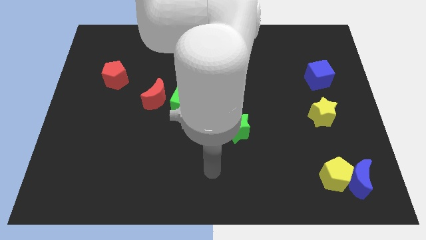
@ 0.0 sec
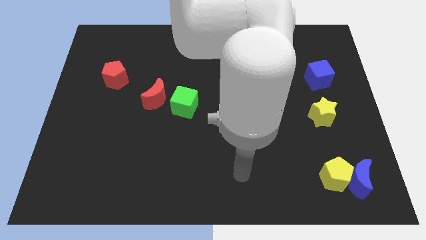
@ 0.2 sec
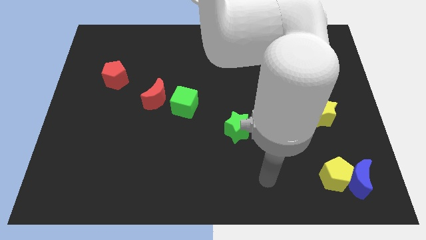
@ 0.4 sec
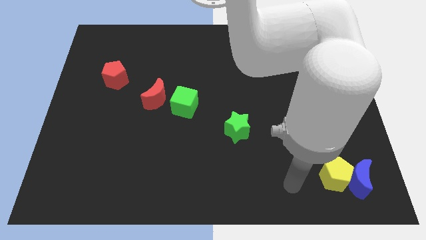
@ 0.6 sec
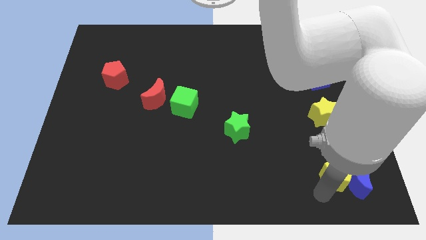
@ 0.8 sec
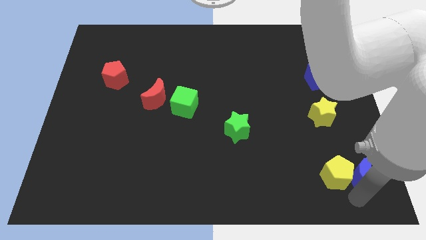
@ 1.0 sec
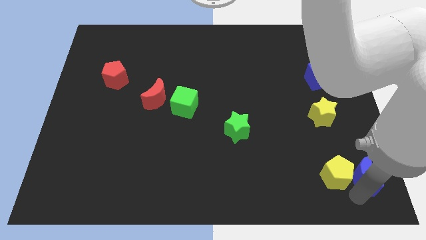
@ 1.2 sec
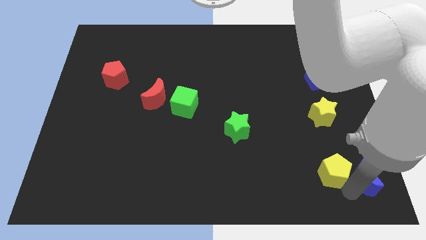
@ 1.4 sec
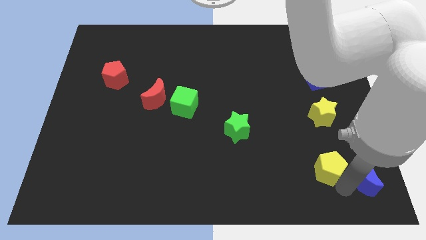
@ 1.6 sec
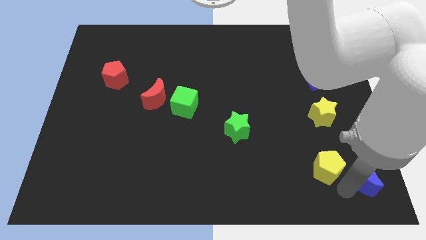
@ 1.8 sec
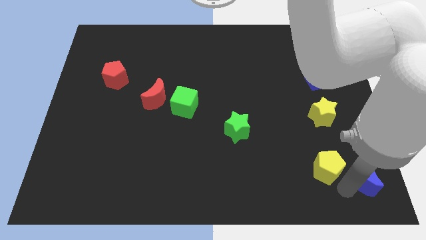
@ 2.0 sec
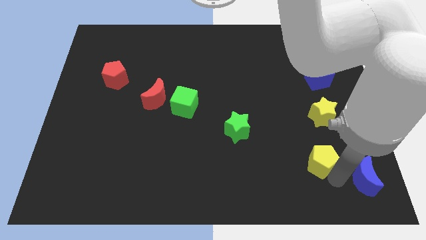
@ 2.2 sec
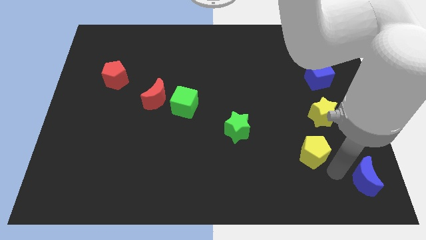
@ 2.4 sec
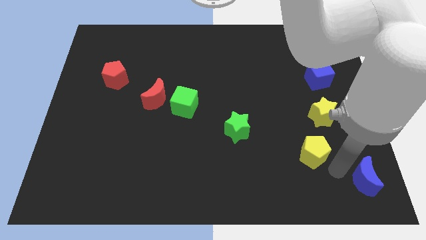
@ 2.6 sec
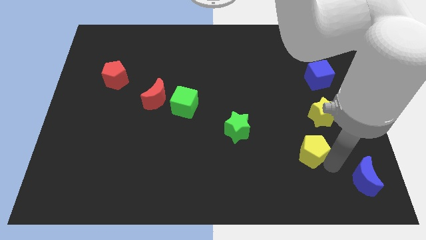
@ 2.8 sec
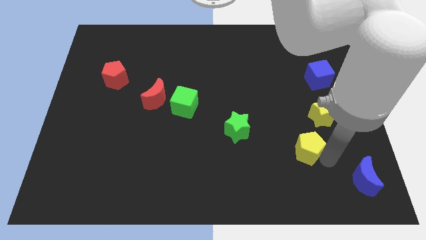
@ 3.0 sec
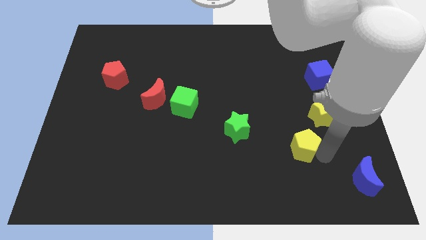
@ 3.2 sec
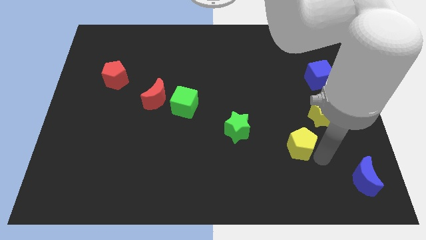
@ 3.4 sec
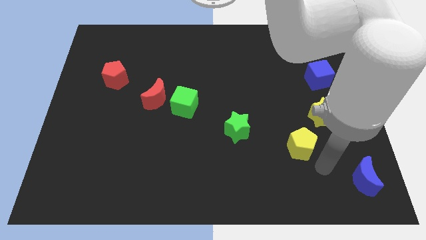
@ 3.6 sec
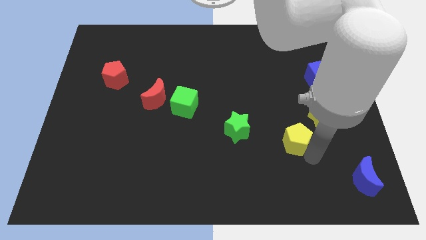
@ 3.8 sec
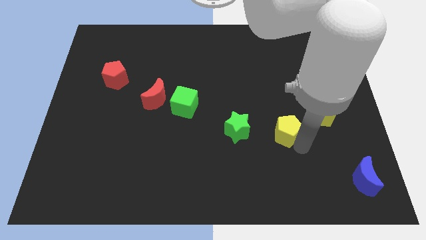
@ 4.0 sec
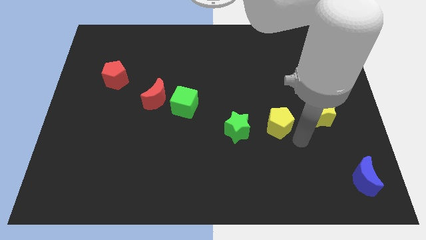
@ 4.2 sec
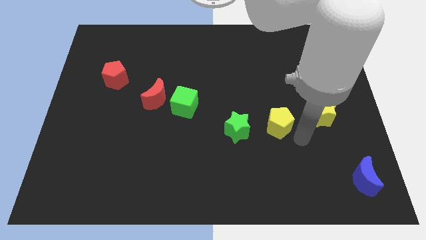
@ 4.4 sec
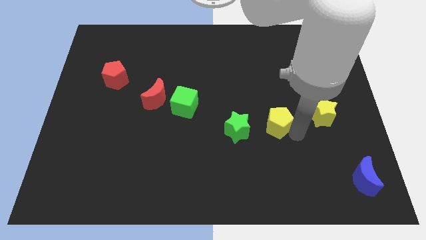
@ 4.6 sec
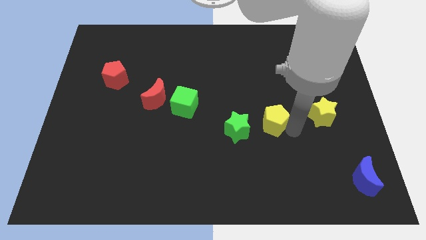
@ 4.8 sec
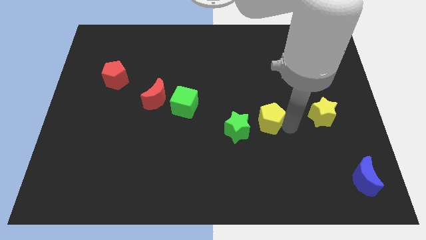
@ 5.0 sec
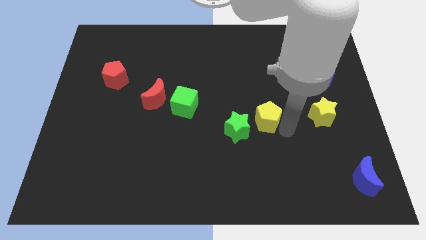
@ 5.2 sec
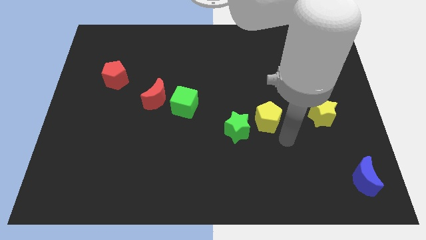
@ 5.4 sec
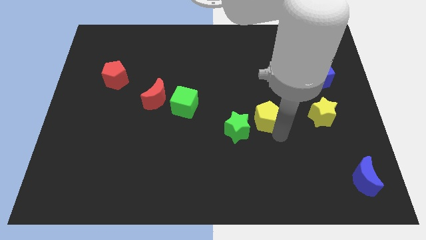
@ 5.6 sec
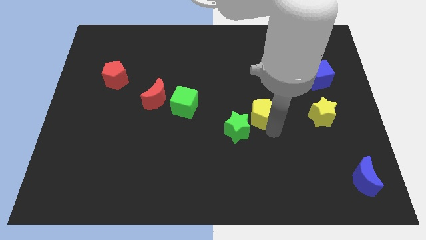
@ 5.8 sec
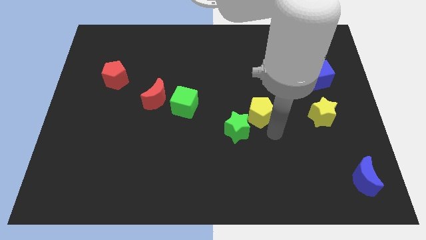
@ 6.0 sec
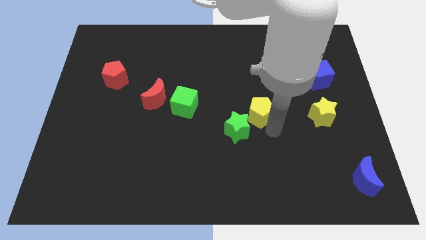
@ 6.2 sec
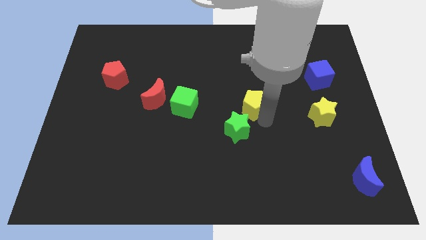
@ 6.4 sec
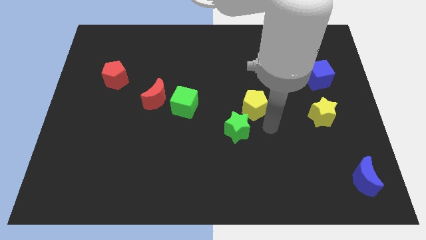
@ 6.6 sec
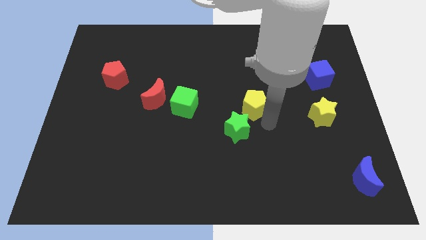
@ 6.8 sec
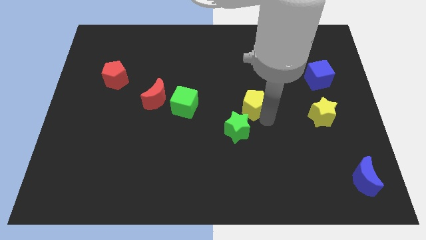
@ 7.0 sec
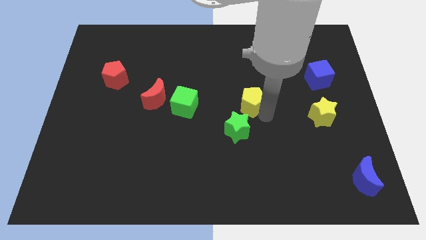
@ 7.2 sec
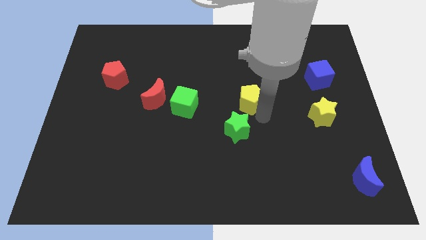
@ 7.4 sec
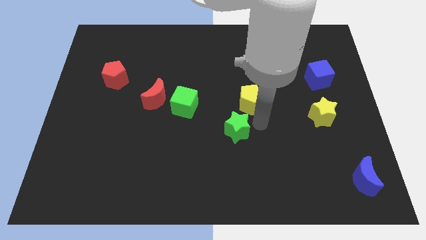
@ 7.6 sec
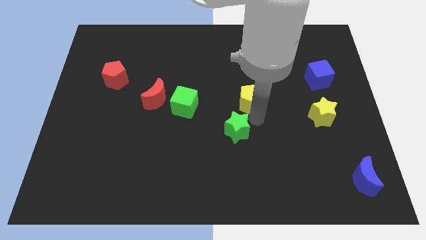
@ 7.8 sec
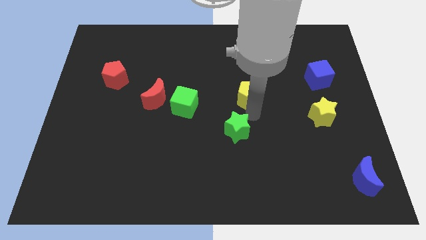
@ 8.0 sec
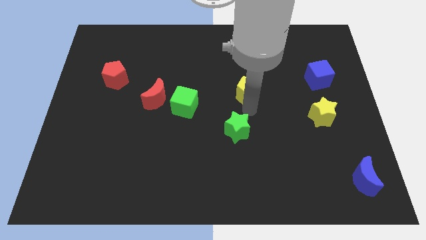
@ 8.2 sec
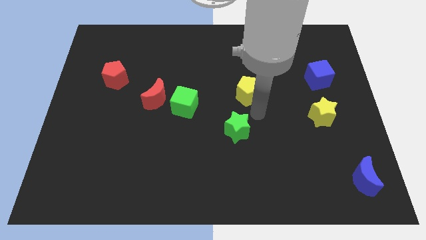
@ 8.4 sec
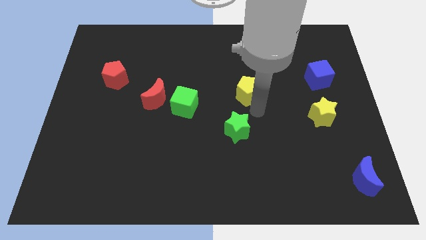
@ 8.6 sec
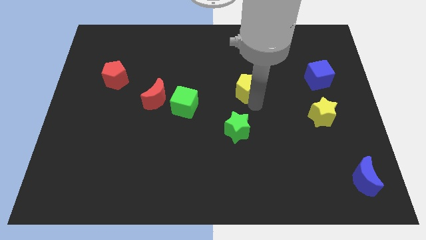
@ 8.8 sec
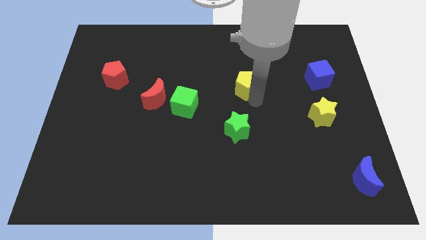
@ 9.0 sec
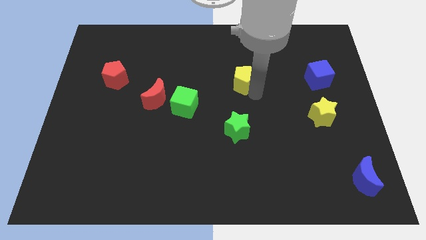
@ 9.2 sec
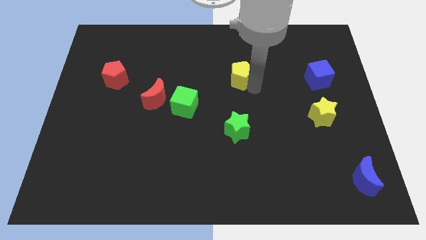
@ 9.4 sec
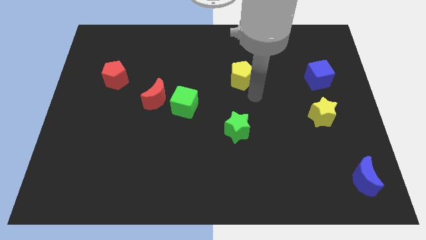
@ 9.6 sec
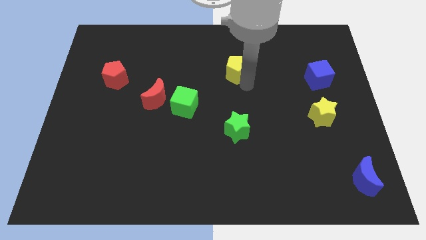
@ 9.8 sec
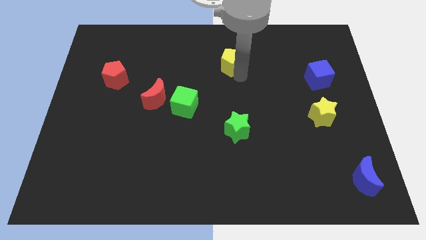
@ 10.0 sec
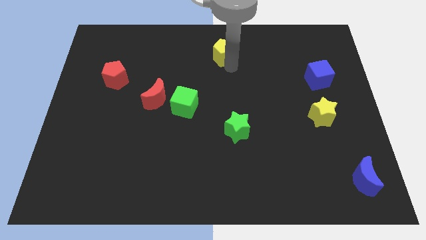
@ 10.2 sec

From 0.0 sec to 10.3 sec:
move the yellow pentagon to the top side

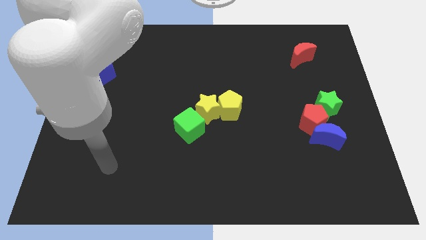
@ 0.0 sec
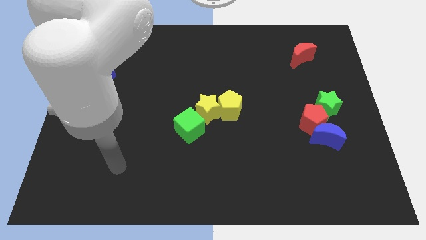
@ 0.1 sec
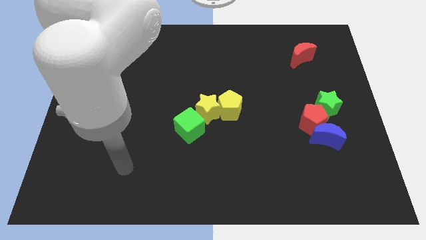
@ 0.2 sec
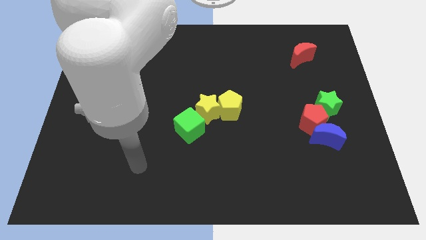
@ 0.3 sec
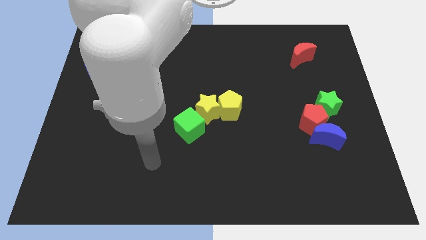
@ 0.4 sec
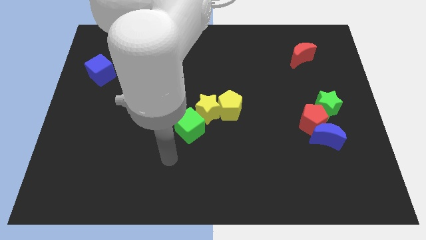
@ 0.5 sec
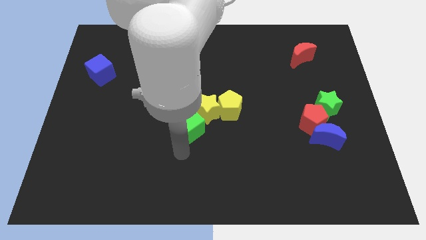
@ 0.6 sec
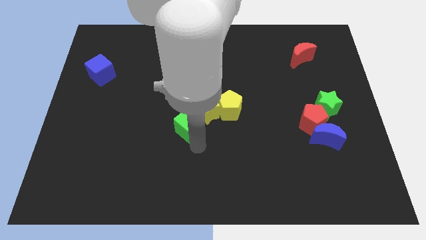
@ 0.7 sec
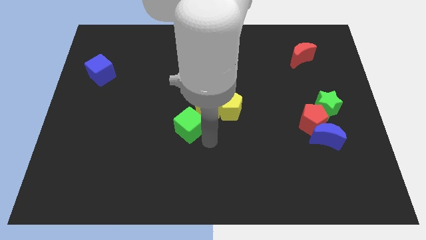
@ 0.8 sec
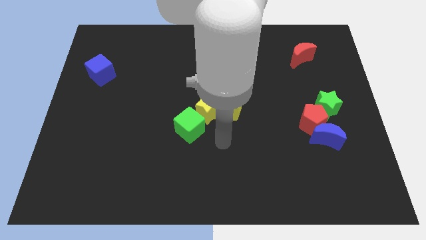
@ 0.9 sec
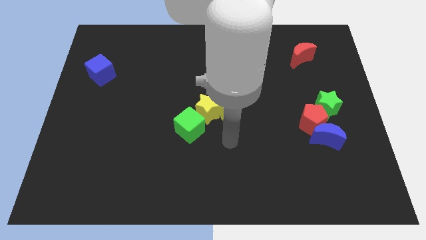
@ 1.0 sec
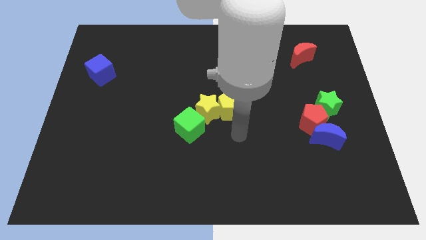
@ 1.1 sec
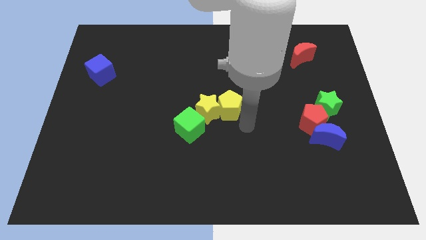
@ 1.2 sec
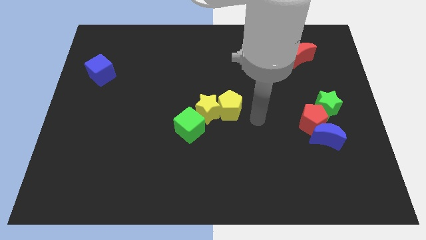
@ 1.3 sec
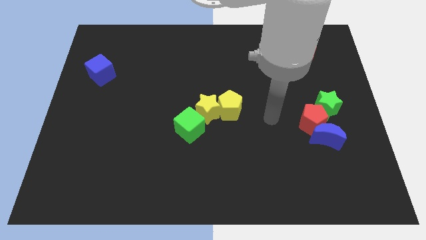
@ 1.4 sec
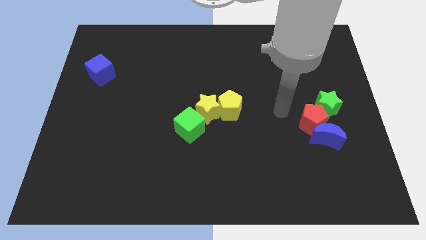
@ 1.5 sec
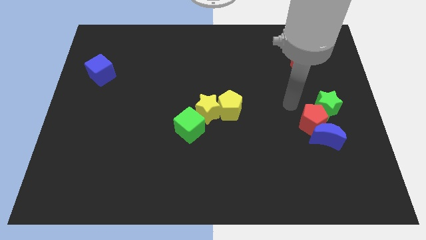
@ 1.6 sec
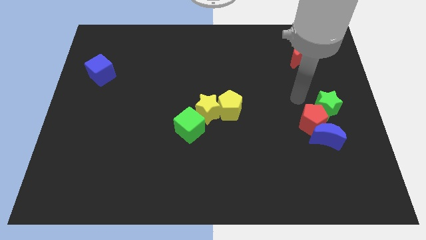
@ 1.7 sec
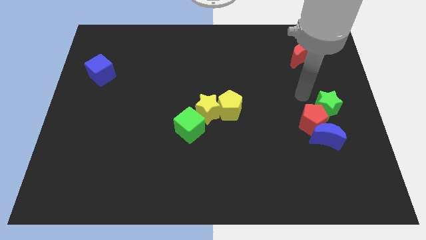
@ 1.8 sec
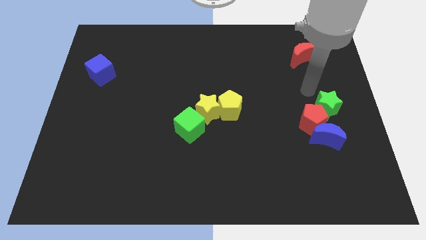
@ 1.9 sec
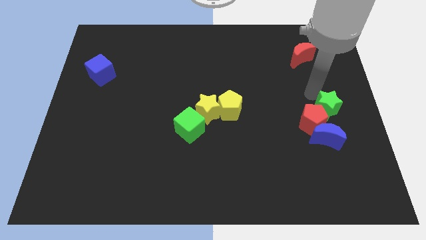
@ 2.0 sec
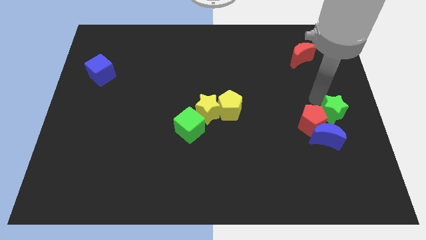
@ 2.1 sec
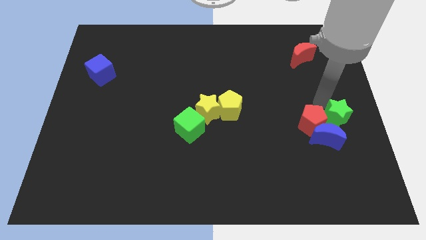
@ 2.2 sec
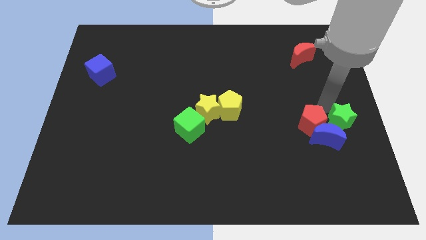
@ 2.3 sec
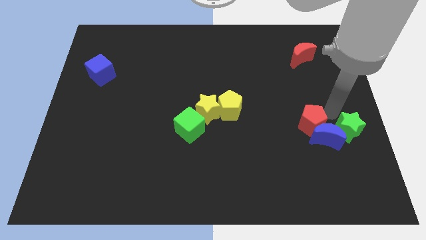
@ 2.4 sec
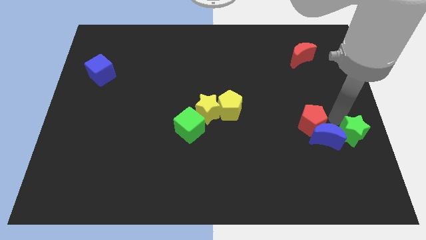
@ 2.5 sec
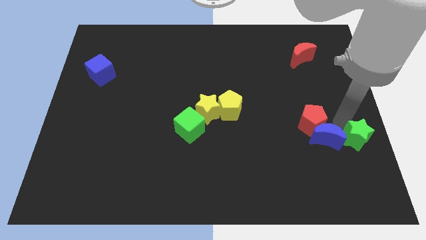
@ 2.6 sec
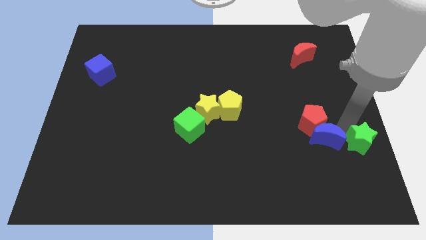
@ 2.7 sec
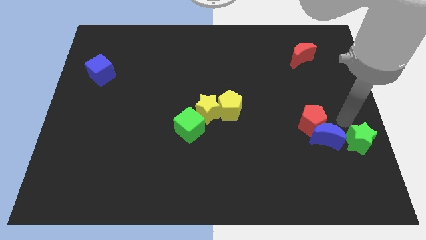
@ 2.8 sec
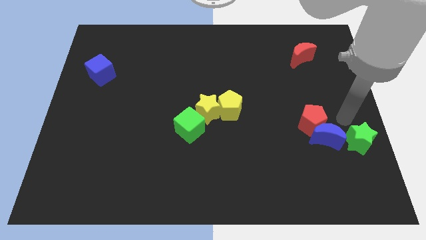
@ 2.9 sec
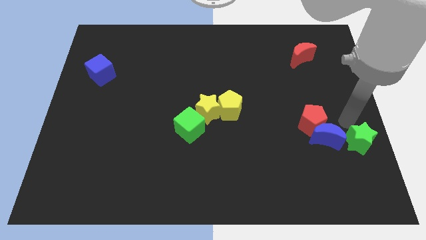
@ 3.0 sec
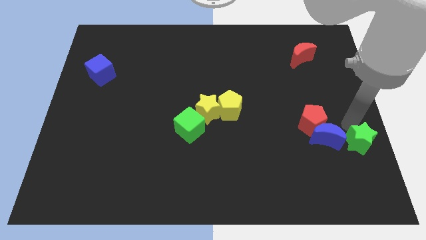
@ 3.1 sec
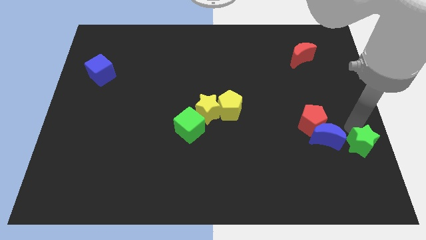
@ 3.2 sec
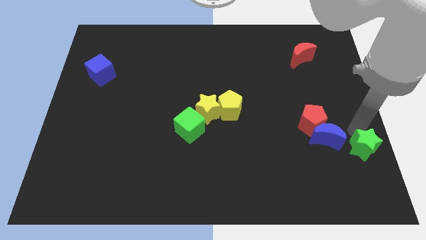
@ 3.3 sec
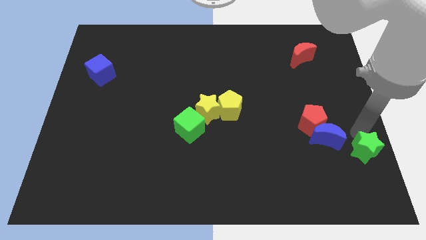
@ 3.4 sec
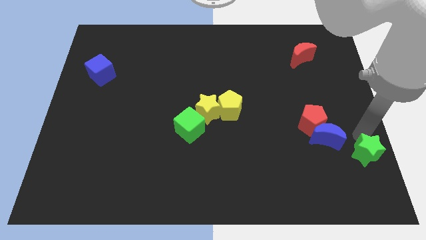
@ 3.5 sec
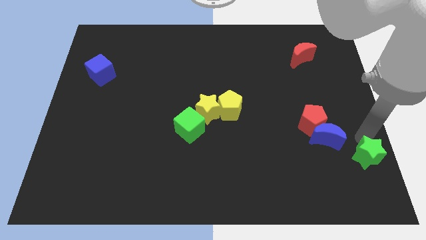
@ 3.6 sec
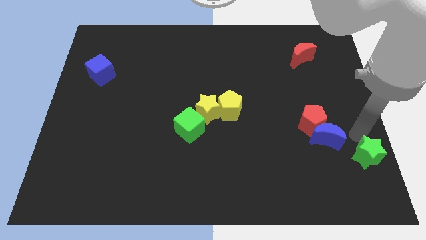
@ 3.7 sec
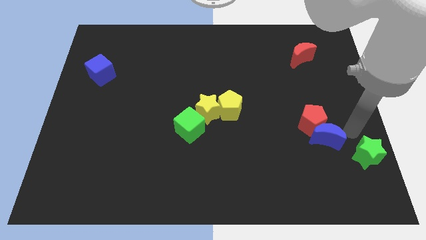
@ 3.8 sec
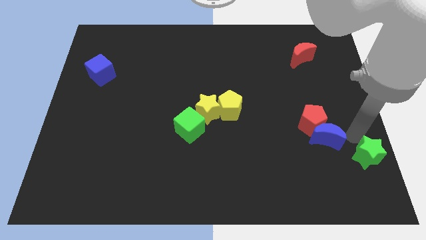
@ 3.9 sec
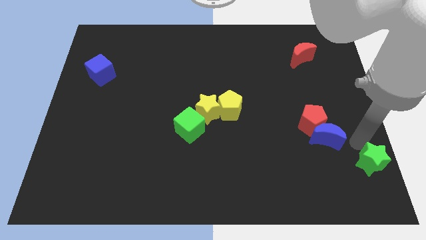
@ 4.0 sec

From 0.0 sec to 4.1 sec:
push the green star to the lower right corner
